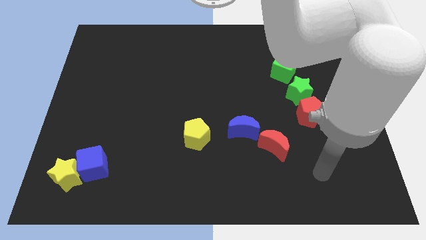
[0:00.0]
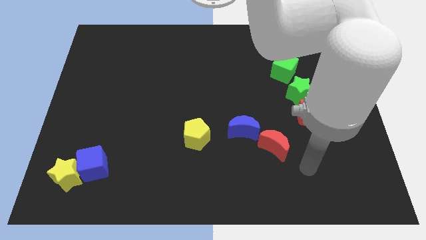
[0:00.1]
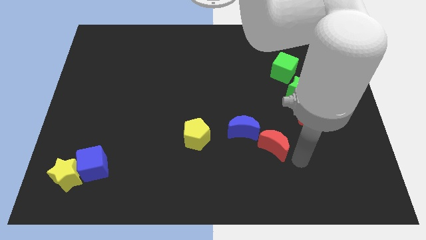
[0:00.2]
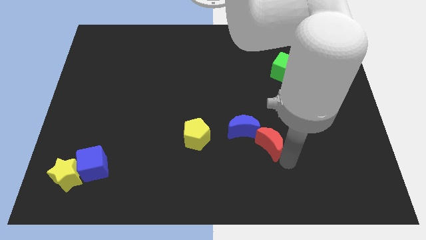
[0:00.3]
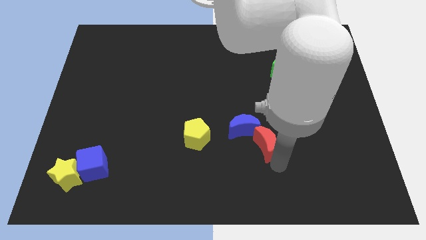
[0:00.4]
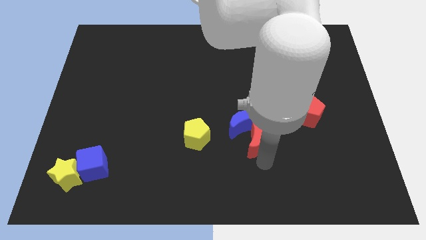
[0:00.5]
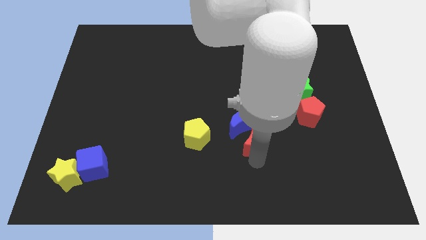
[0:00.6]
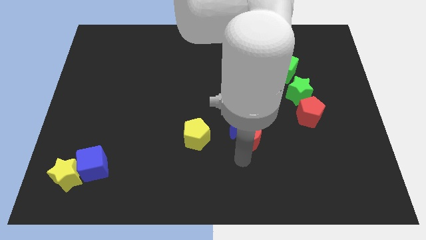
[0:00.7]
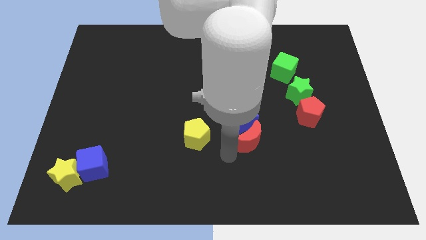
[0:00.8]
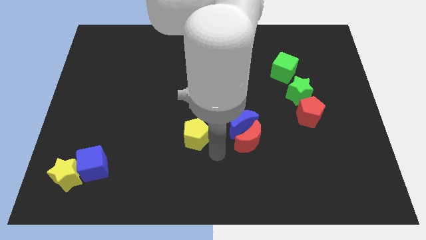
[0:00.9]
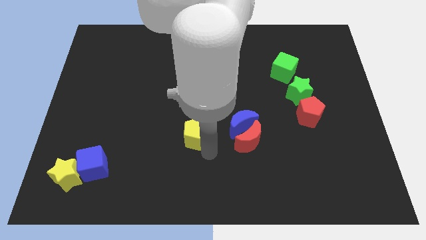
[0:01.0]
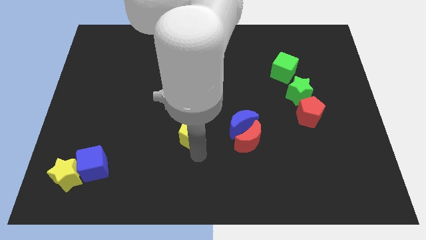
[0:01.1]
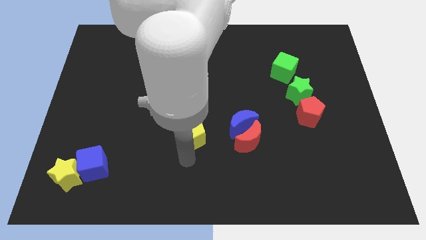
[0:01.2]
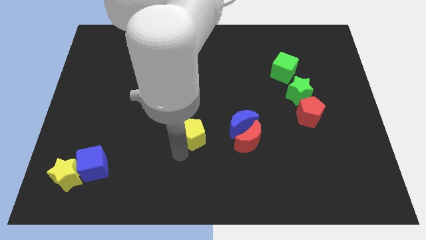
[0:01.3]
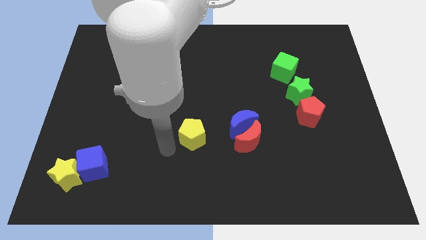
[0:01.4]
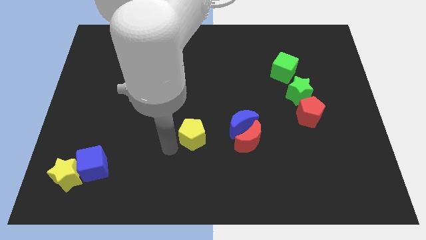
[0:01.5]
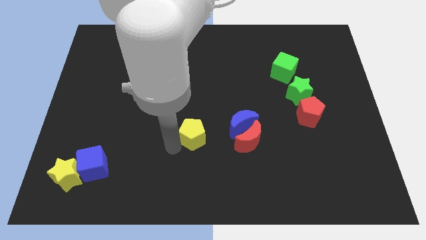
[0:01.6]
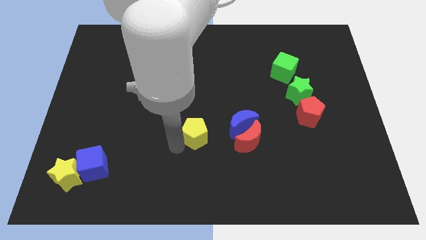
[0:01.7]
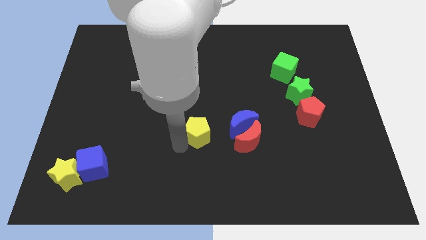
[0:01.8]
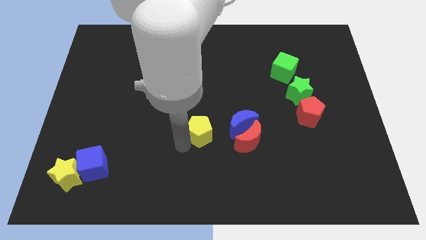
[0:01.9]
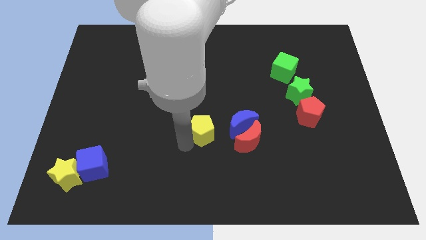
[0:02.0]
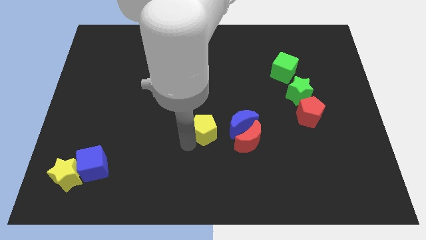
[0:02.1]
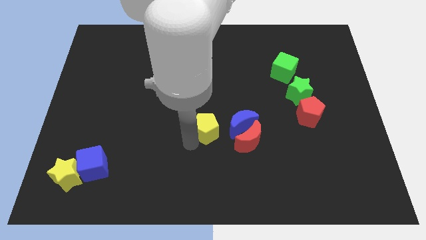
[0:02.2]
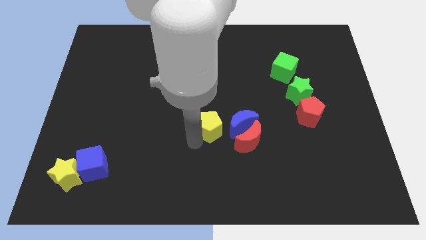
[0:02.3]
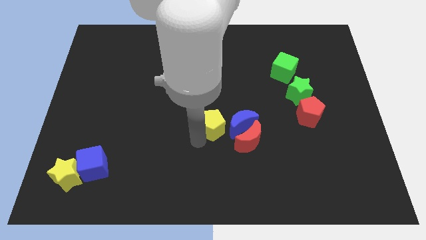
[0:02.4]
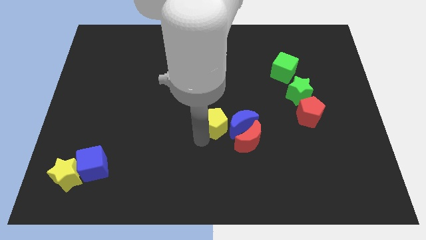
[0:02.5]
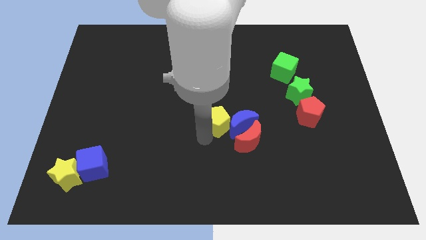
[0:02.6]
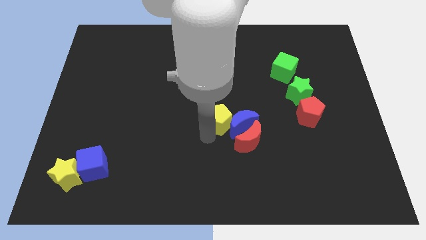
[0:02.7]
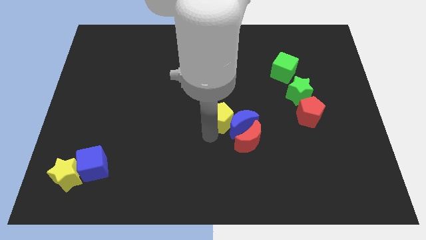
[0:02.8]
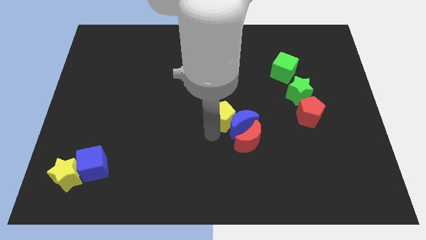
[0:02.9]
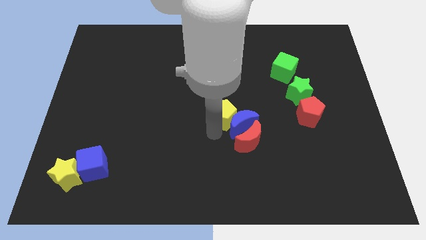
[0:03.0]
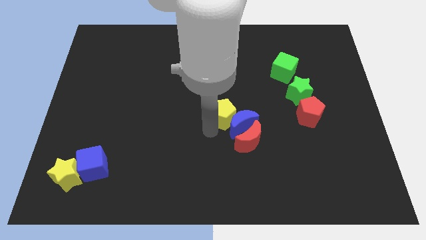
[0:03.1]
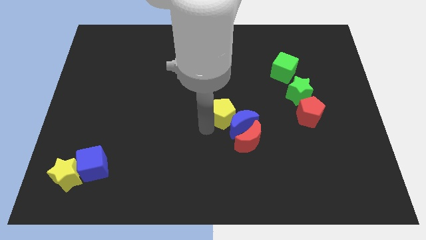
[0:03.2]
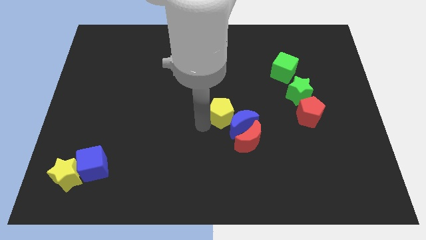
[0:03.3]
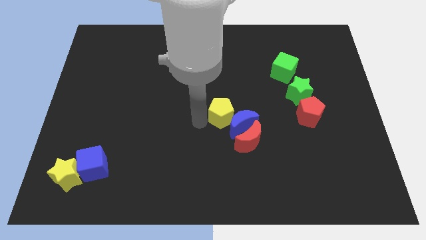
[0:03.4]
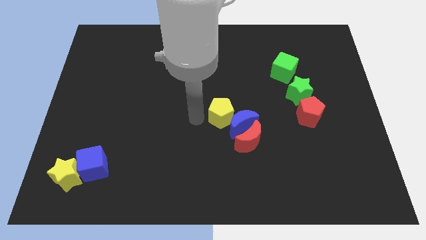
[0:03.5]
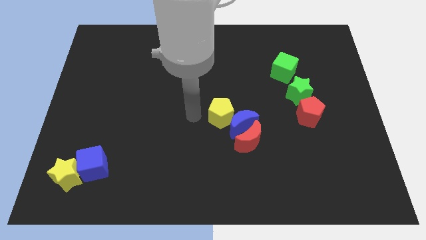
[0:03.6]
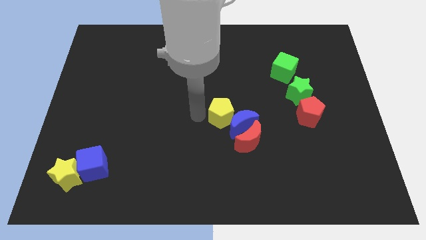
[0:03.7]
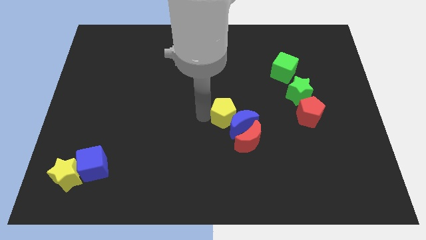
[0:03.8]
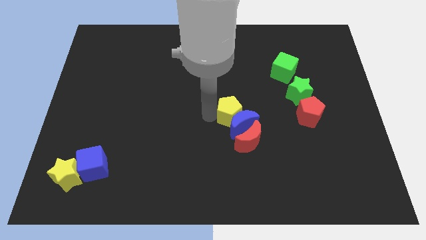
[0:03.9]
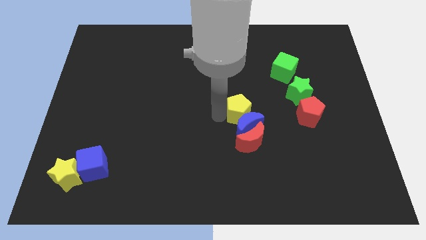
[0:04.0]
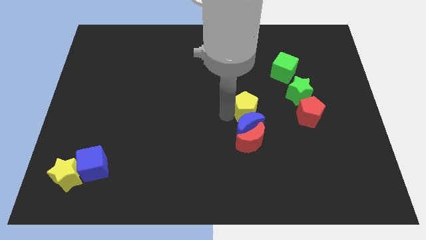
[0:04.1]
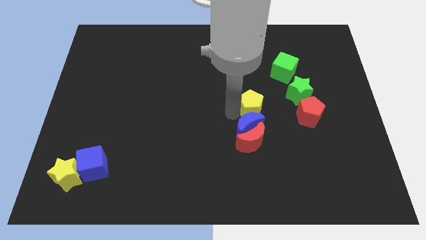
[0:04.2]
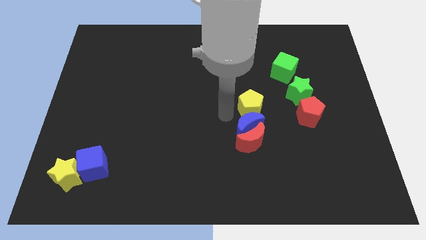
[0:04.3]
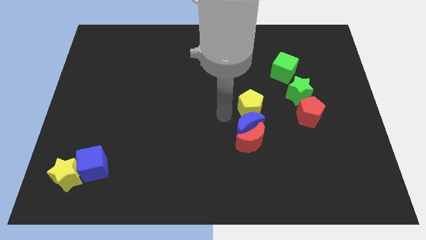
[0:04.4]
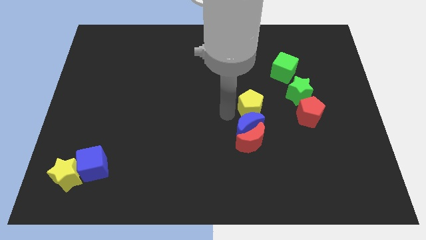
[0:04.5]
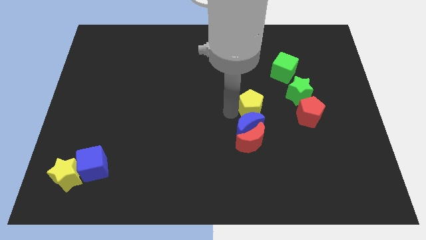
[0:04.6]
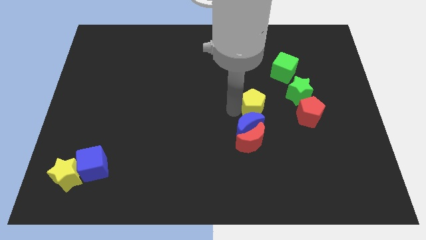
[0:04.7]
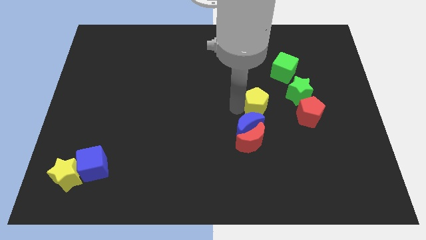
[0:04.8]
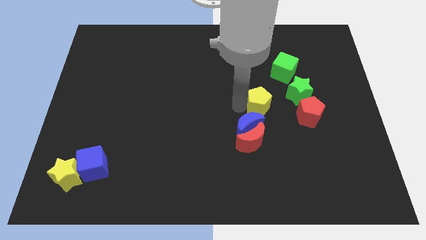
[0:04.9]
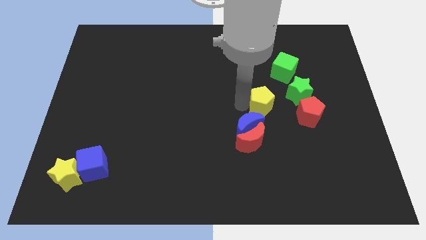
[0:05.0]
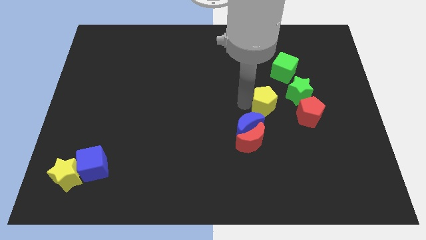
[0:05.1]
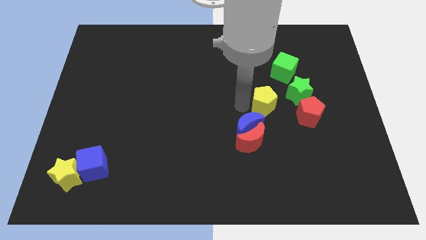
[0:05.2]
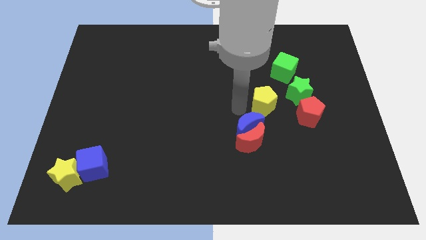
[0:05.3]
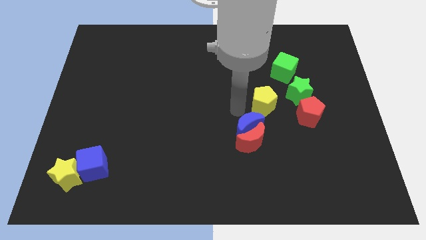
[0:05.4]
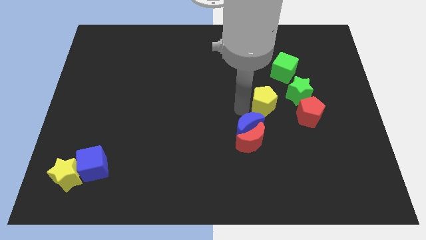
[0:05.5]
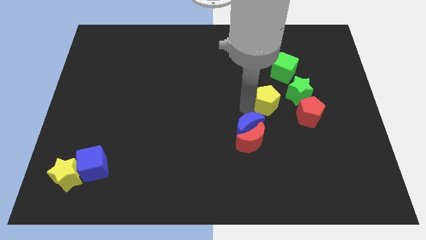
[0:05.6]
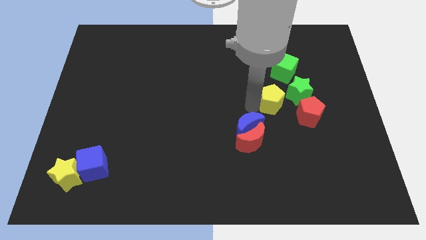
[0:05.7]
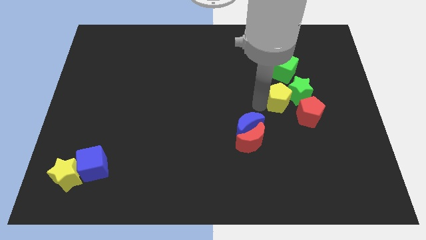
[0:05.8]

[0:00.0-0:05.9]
move the yellow pentagon to the green star

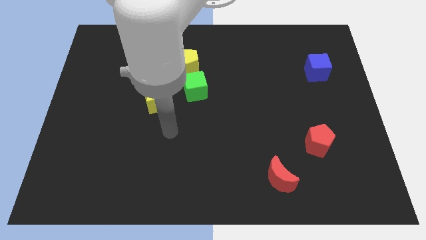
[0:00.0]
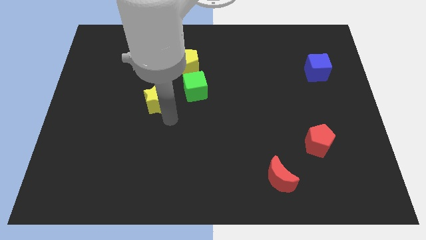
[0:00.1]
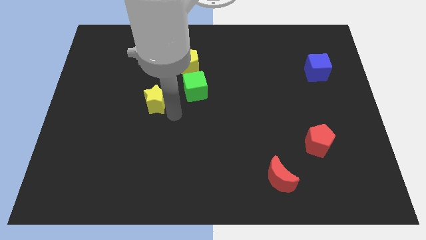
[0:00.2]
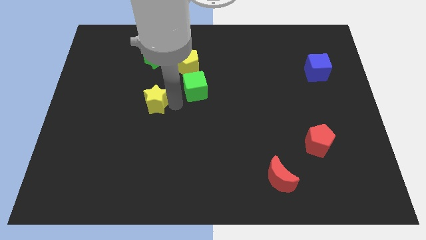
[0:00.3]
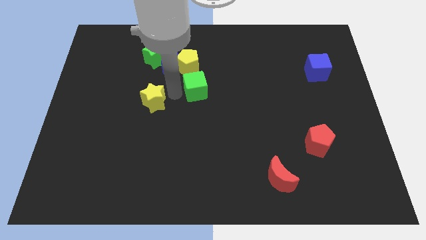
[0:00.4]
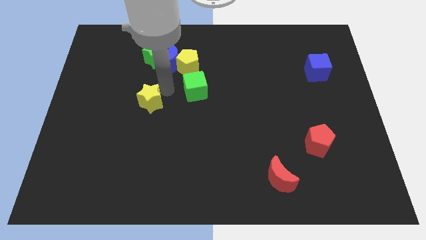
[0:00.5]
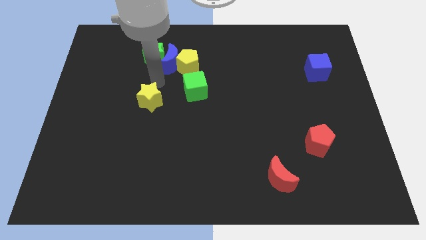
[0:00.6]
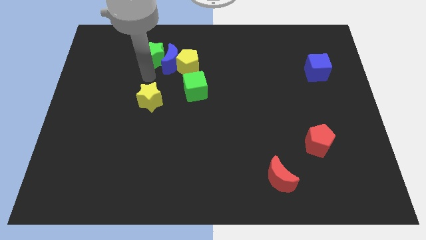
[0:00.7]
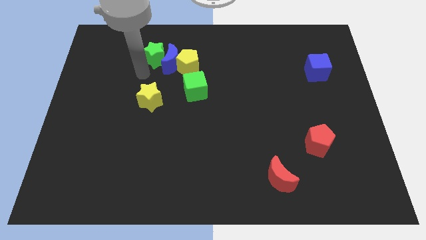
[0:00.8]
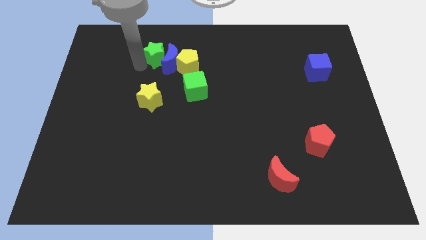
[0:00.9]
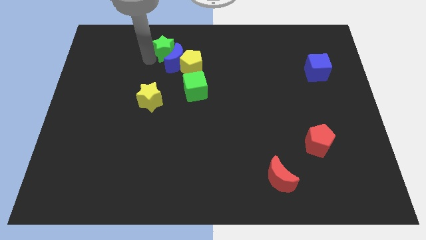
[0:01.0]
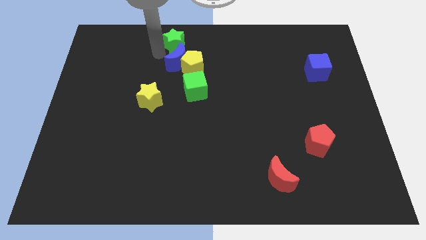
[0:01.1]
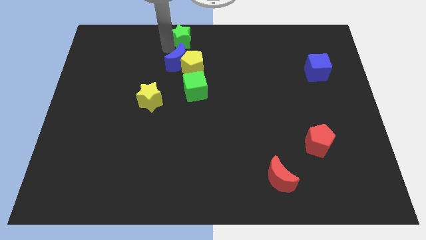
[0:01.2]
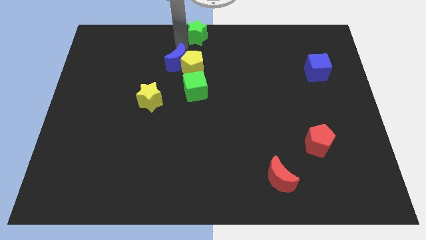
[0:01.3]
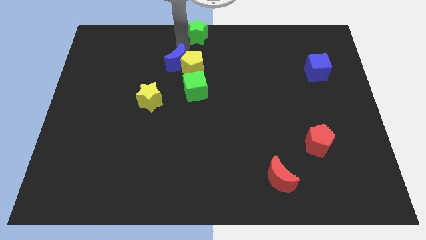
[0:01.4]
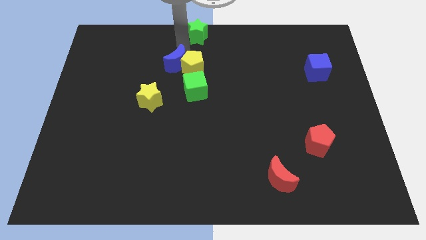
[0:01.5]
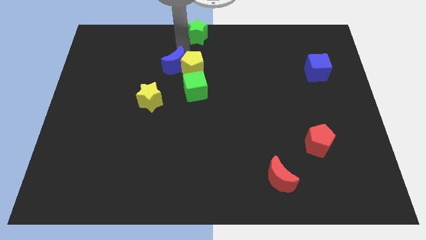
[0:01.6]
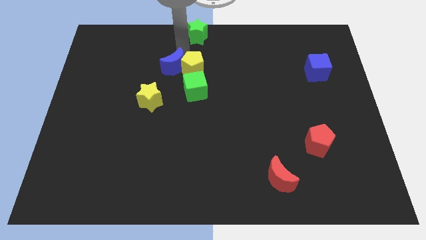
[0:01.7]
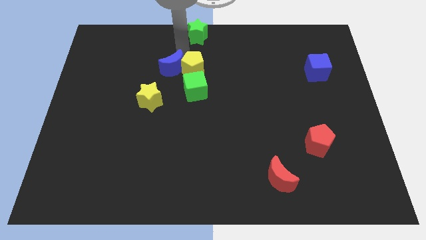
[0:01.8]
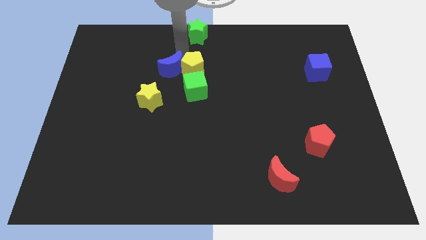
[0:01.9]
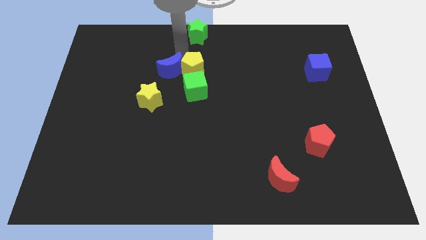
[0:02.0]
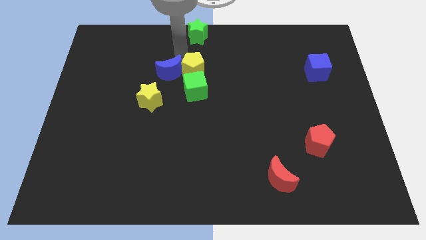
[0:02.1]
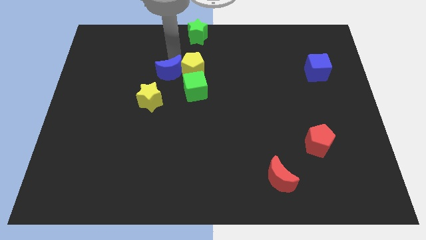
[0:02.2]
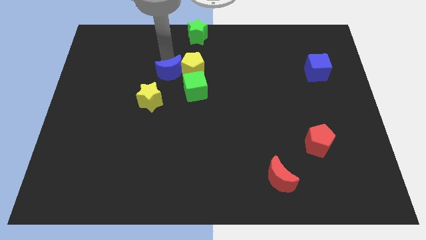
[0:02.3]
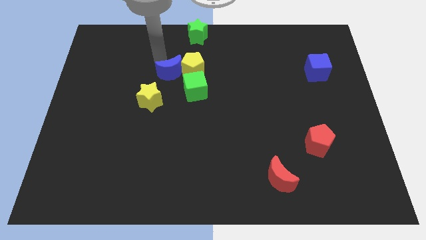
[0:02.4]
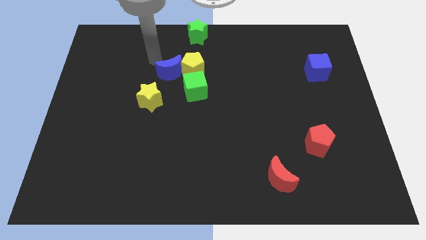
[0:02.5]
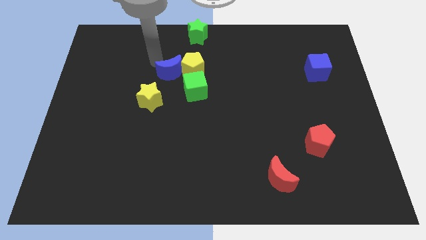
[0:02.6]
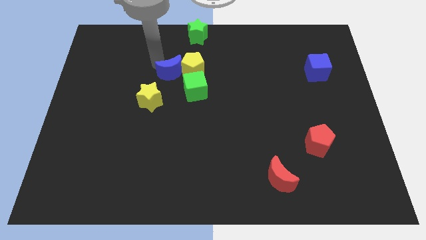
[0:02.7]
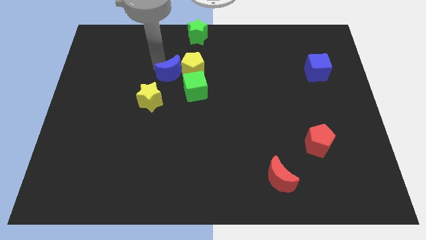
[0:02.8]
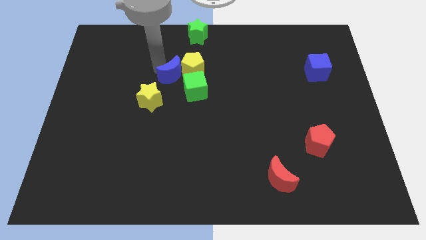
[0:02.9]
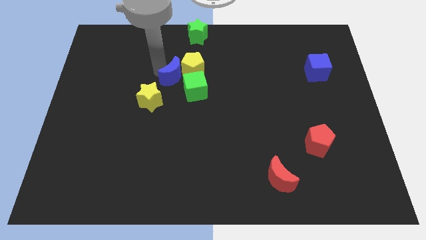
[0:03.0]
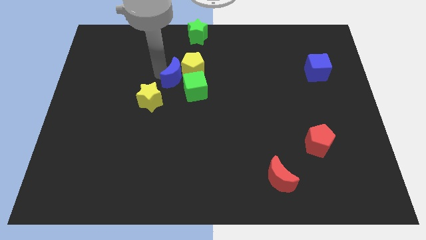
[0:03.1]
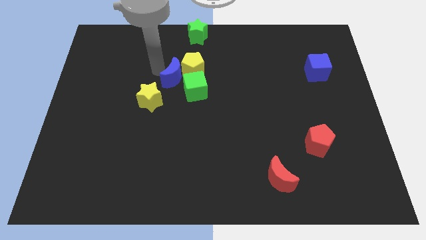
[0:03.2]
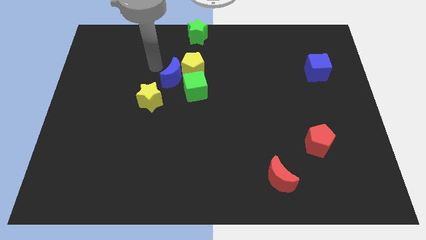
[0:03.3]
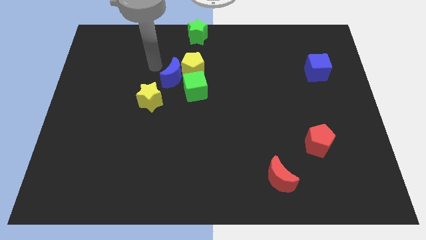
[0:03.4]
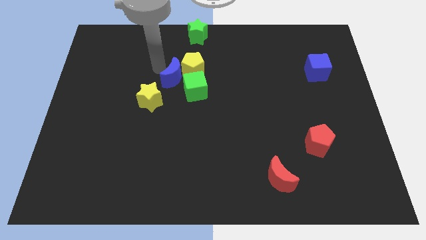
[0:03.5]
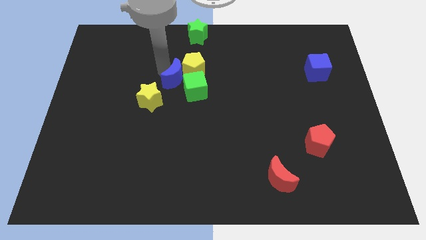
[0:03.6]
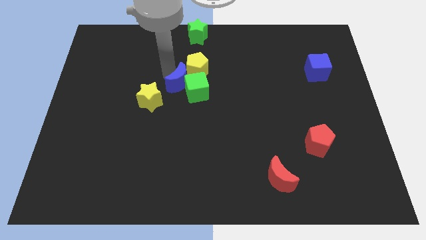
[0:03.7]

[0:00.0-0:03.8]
slide the blue moon towards the green cube
